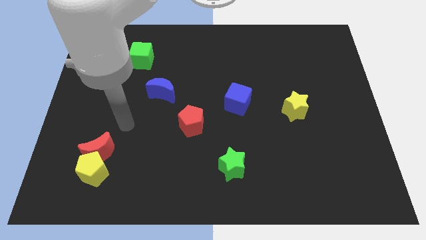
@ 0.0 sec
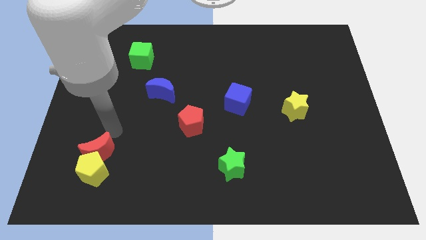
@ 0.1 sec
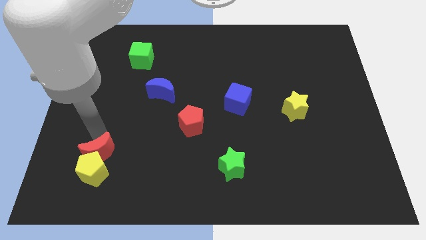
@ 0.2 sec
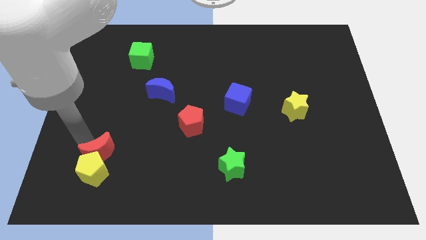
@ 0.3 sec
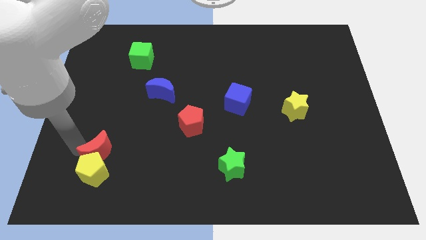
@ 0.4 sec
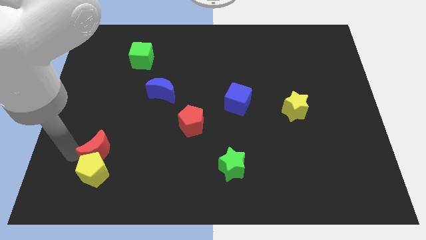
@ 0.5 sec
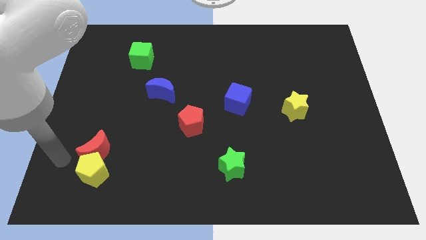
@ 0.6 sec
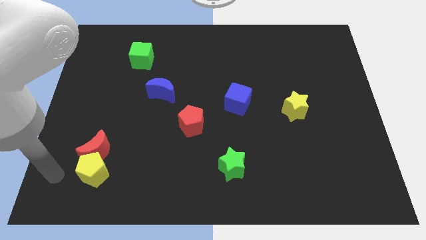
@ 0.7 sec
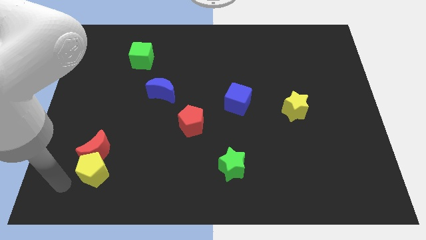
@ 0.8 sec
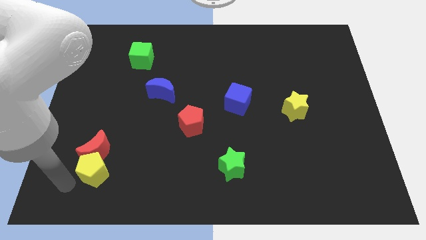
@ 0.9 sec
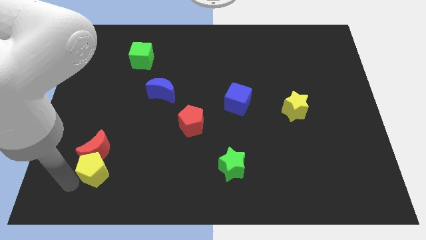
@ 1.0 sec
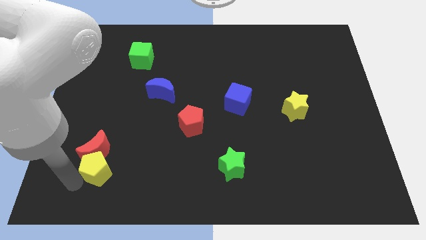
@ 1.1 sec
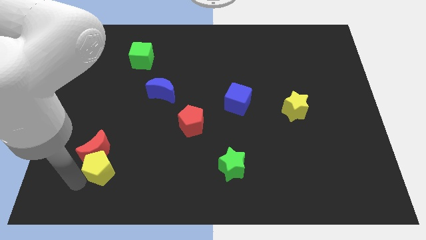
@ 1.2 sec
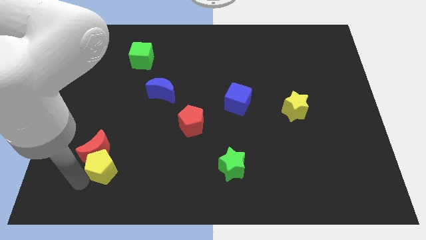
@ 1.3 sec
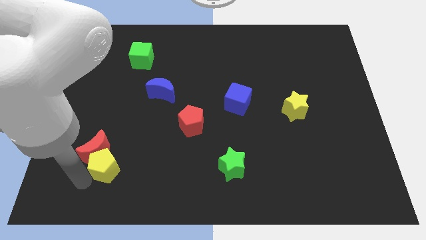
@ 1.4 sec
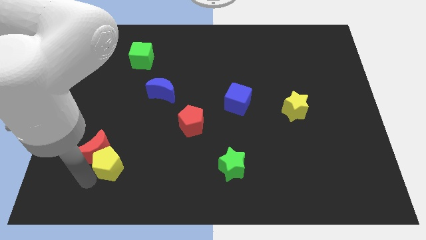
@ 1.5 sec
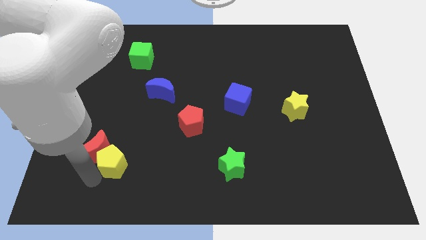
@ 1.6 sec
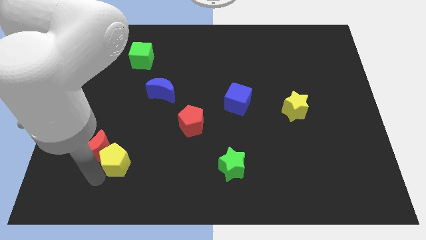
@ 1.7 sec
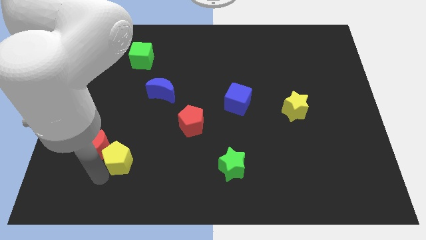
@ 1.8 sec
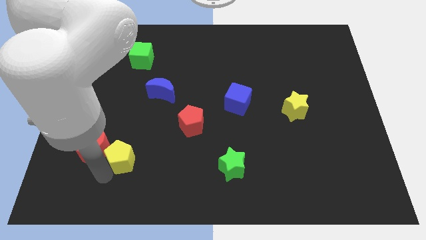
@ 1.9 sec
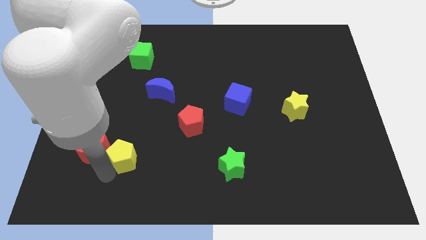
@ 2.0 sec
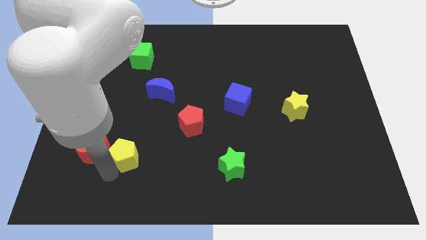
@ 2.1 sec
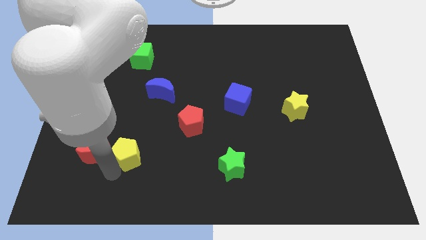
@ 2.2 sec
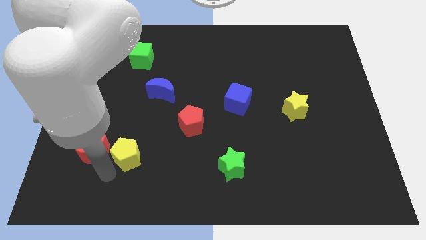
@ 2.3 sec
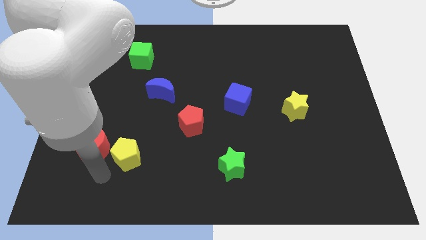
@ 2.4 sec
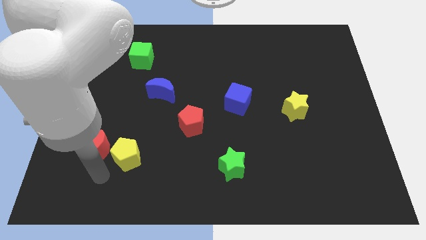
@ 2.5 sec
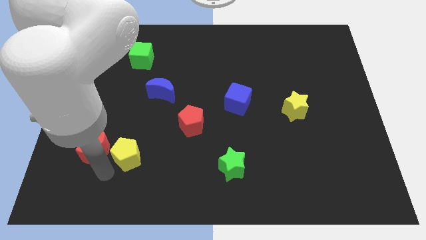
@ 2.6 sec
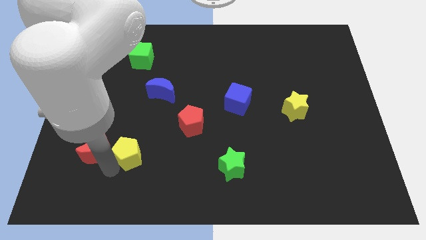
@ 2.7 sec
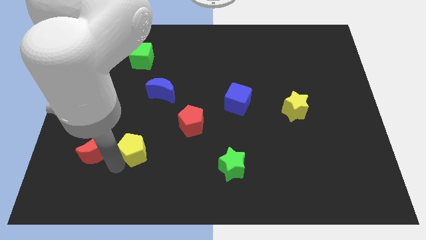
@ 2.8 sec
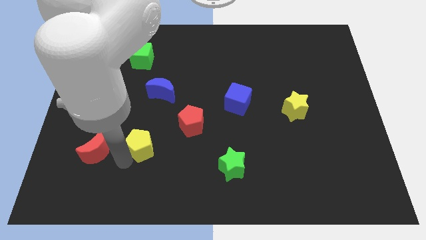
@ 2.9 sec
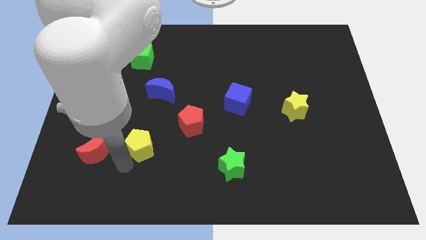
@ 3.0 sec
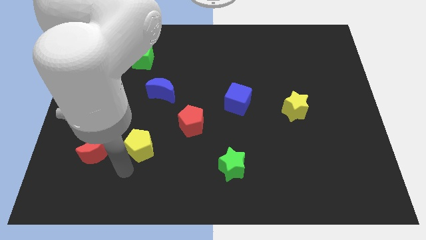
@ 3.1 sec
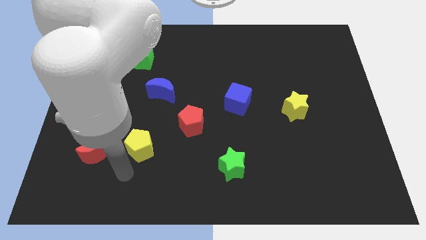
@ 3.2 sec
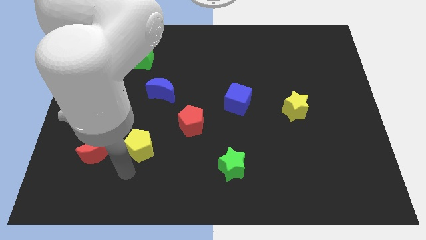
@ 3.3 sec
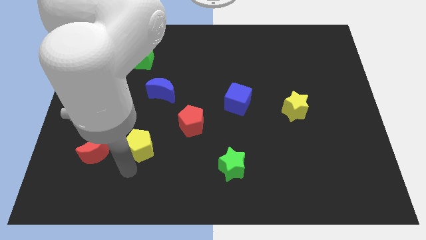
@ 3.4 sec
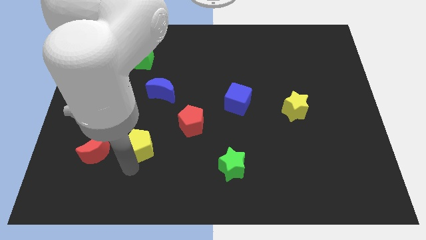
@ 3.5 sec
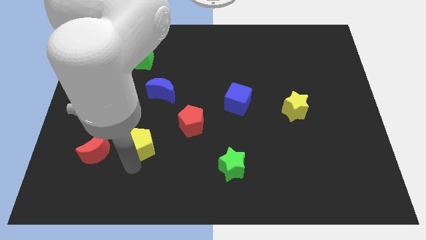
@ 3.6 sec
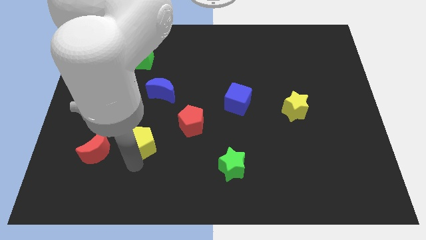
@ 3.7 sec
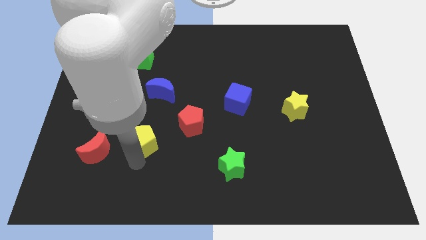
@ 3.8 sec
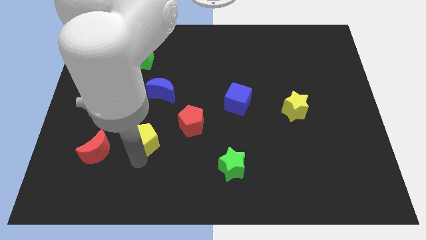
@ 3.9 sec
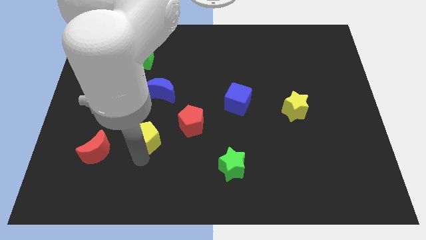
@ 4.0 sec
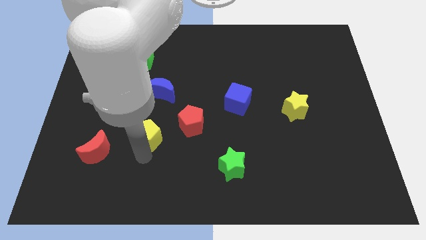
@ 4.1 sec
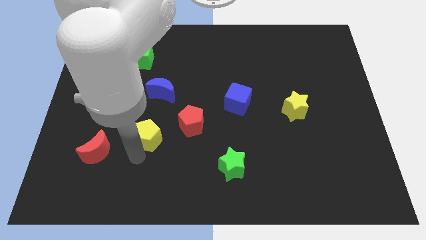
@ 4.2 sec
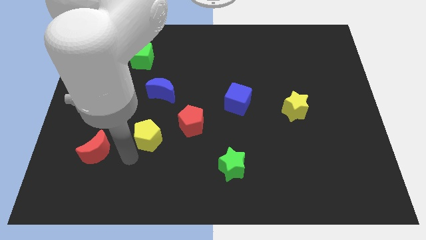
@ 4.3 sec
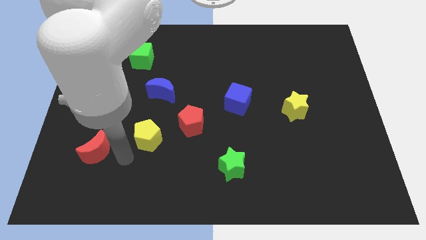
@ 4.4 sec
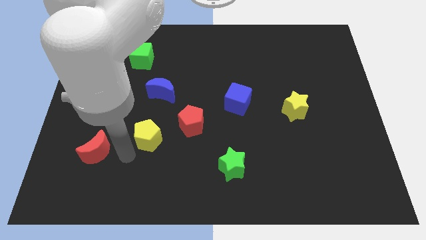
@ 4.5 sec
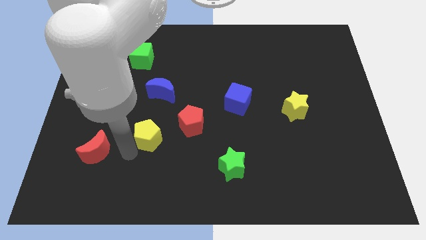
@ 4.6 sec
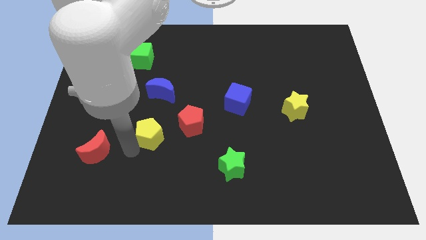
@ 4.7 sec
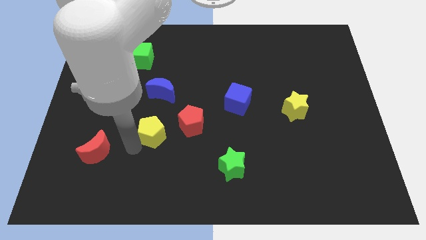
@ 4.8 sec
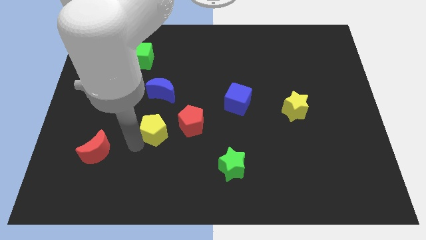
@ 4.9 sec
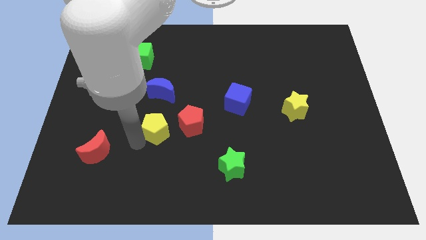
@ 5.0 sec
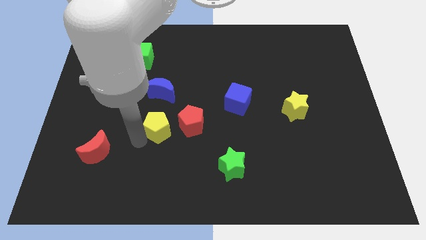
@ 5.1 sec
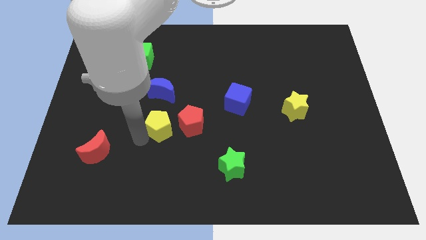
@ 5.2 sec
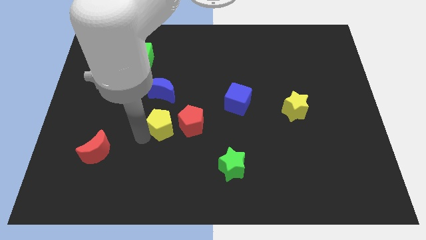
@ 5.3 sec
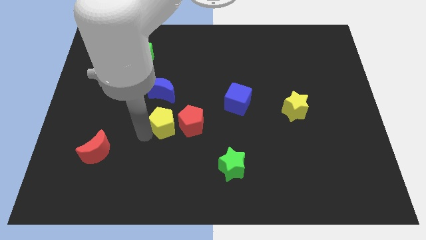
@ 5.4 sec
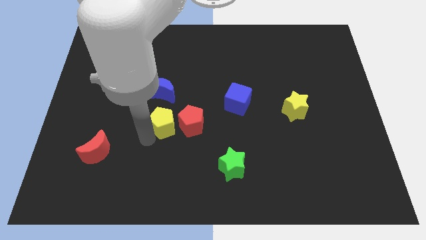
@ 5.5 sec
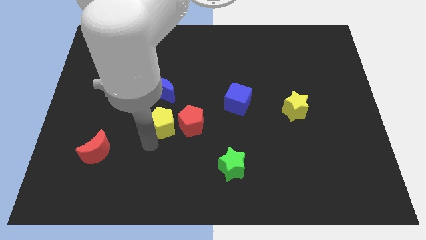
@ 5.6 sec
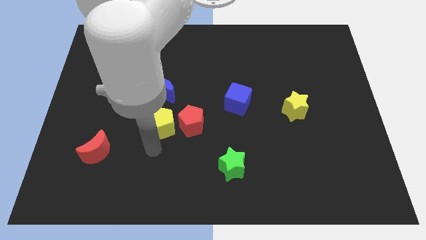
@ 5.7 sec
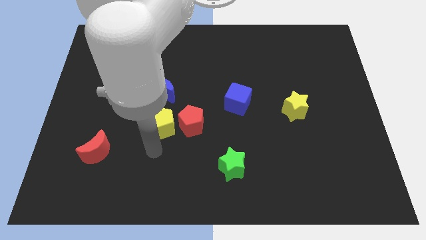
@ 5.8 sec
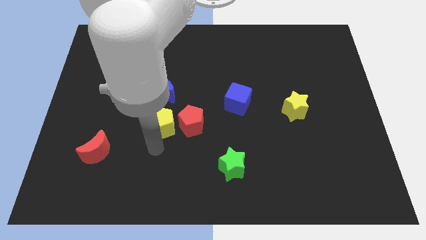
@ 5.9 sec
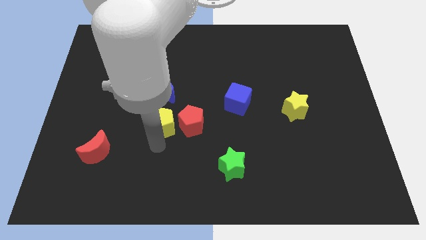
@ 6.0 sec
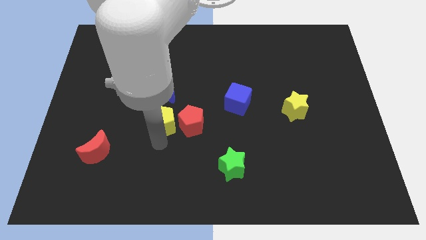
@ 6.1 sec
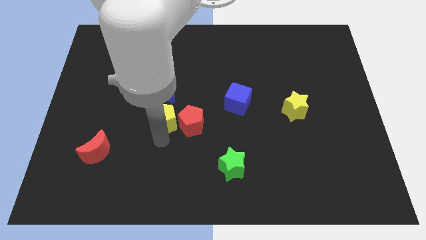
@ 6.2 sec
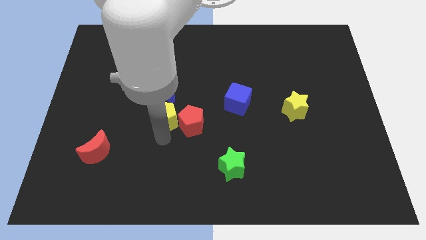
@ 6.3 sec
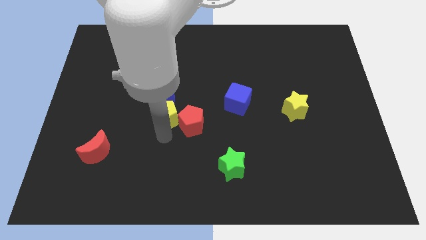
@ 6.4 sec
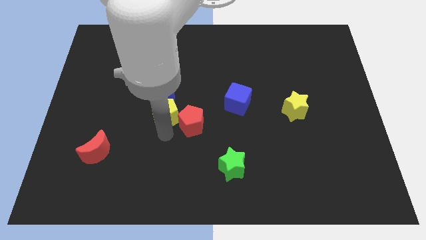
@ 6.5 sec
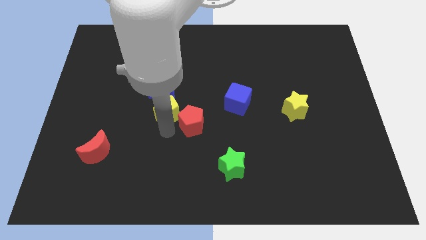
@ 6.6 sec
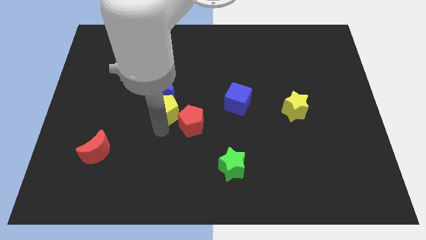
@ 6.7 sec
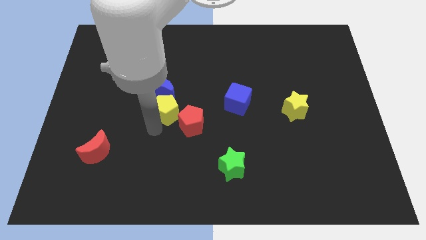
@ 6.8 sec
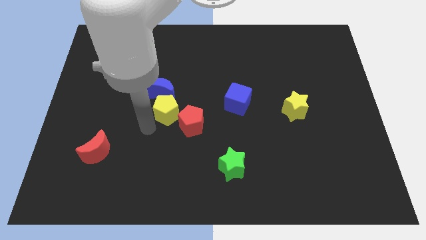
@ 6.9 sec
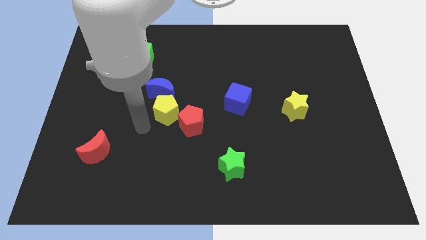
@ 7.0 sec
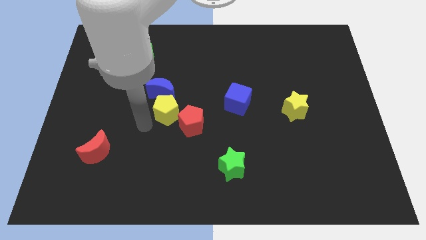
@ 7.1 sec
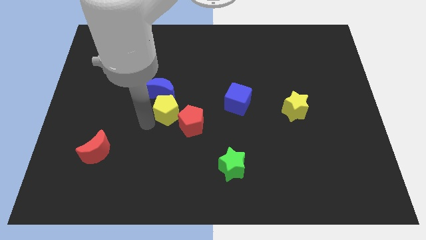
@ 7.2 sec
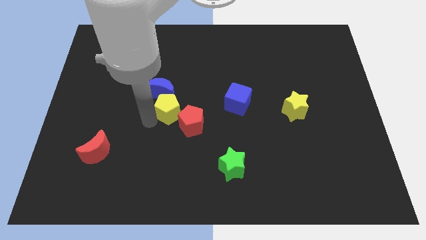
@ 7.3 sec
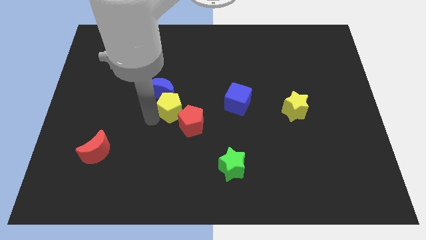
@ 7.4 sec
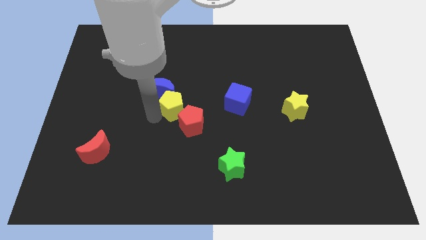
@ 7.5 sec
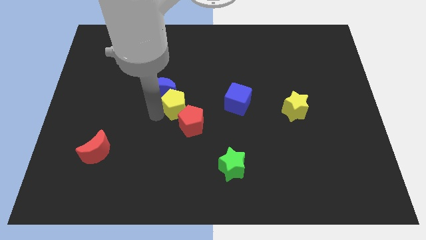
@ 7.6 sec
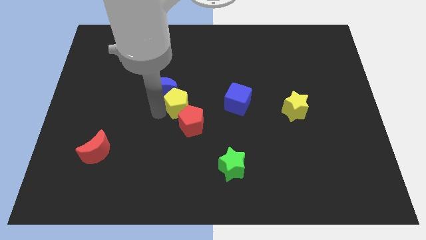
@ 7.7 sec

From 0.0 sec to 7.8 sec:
slide the yellow pentagon just right of the blue moon
